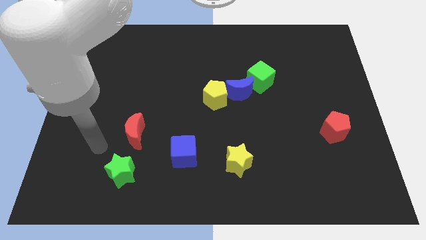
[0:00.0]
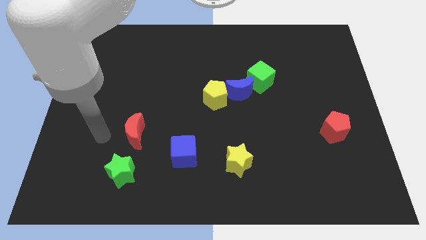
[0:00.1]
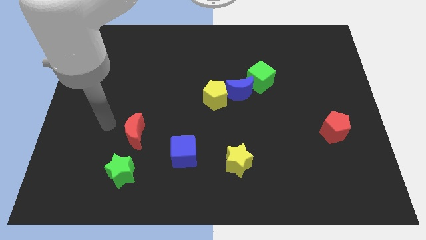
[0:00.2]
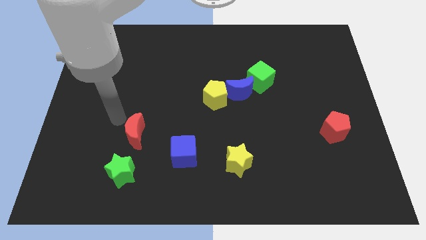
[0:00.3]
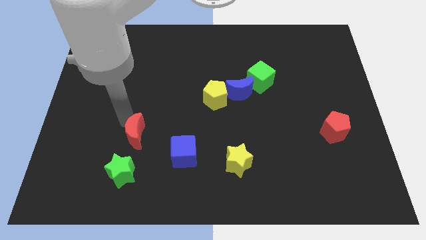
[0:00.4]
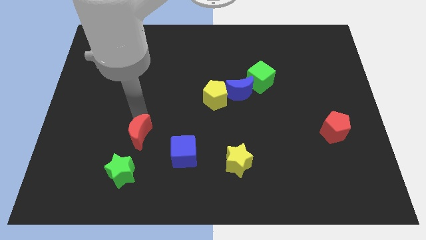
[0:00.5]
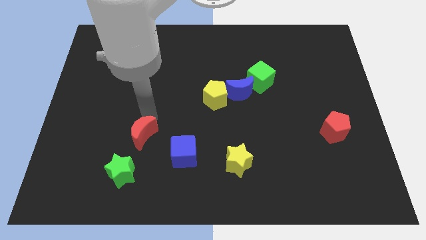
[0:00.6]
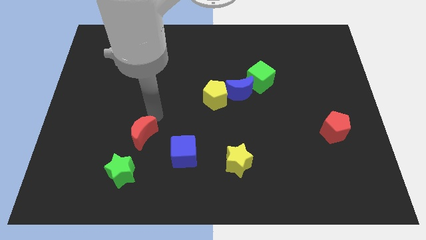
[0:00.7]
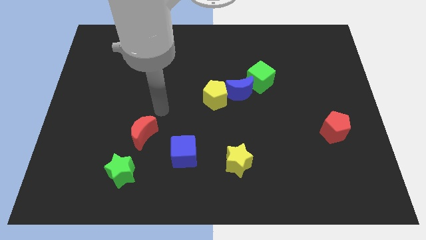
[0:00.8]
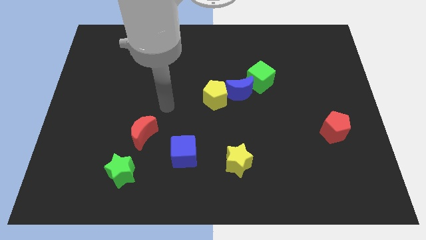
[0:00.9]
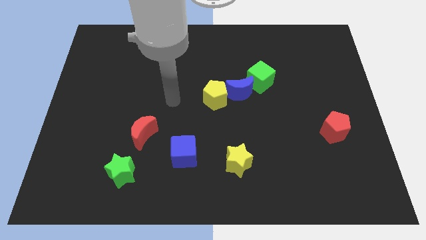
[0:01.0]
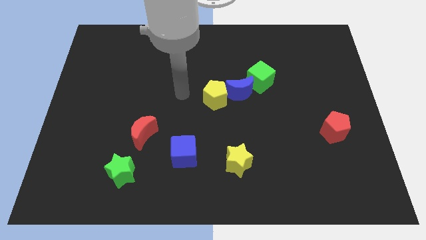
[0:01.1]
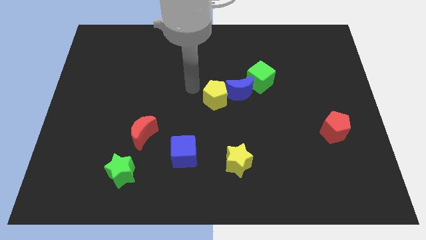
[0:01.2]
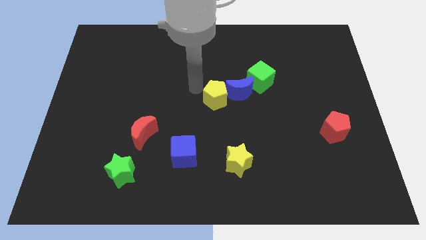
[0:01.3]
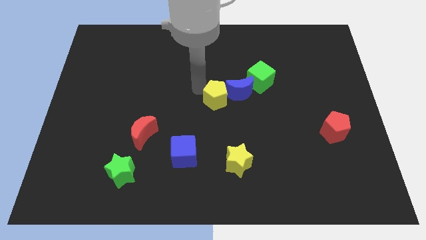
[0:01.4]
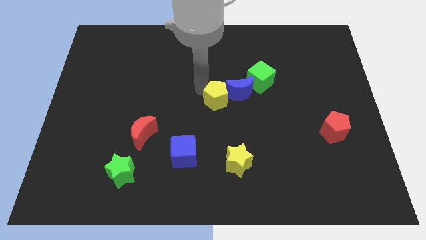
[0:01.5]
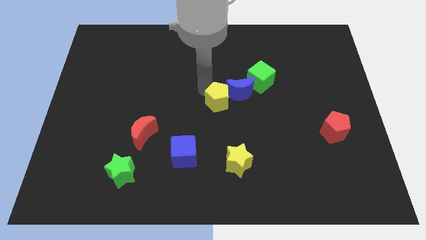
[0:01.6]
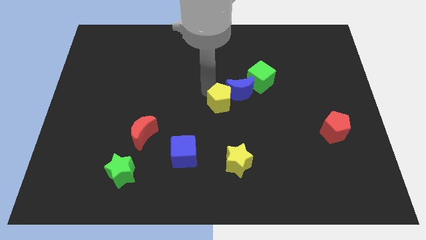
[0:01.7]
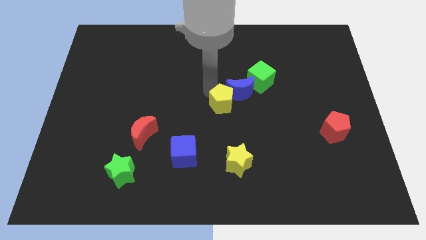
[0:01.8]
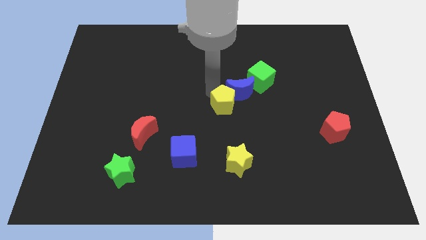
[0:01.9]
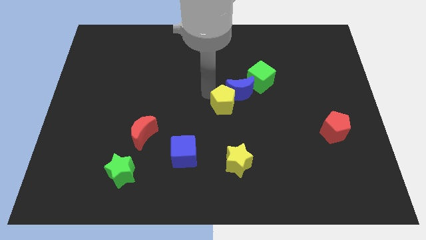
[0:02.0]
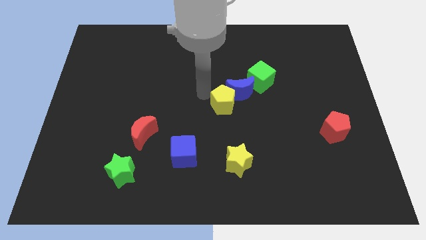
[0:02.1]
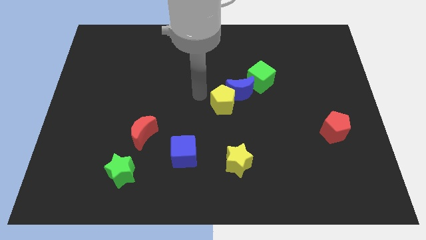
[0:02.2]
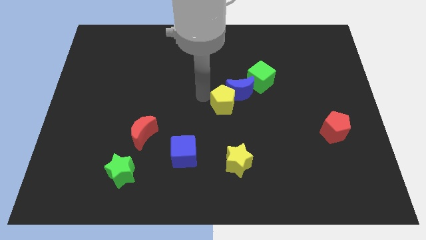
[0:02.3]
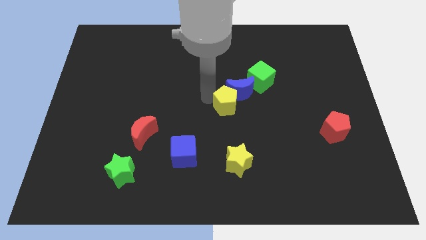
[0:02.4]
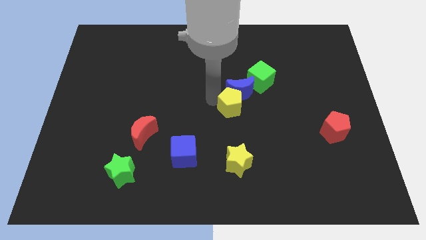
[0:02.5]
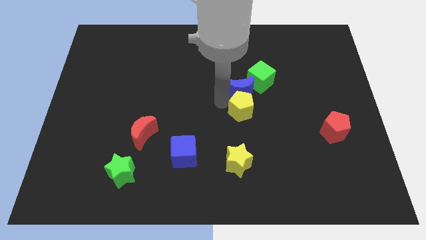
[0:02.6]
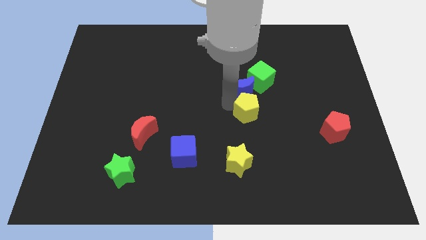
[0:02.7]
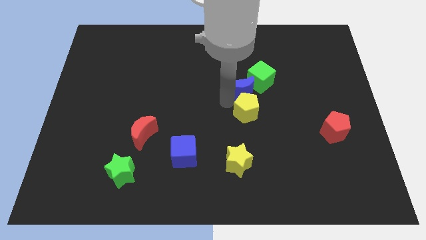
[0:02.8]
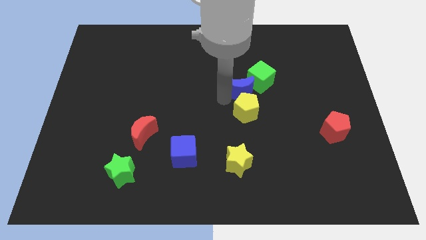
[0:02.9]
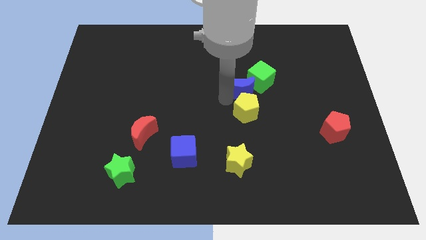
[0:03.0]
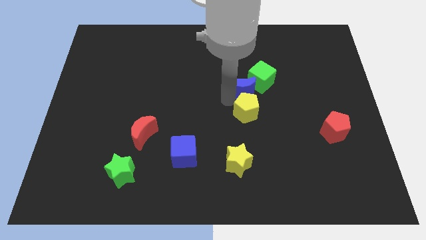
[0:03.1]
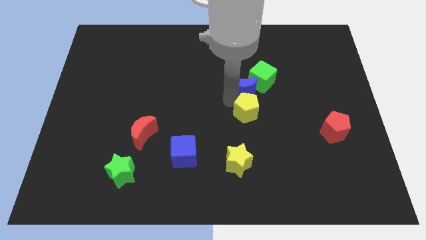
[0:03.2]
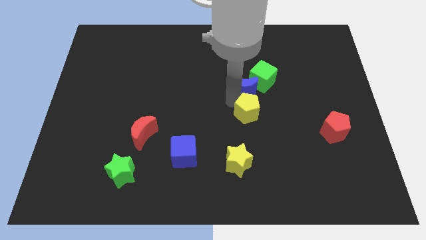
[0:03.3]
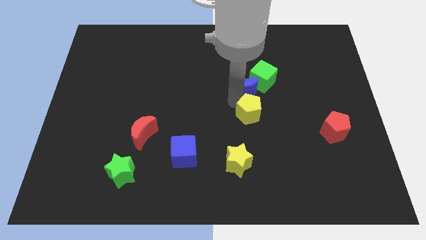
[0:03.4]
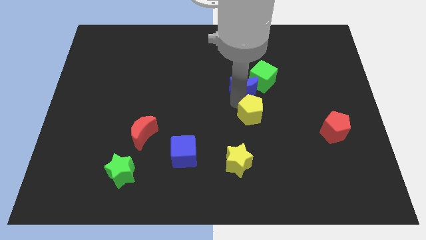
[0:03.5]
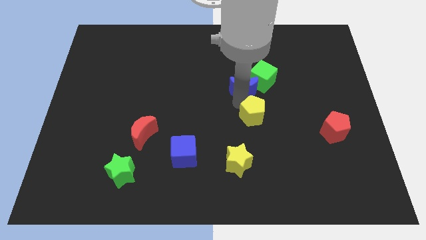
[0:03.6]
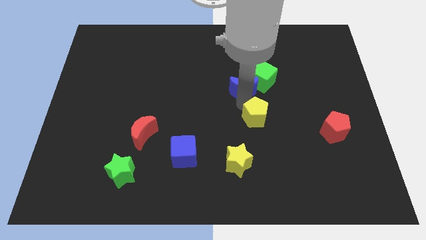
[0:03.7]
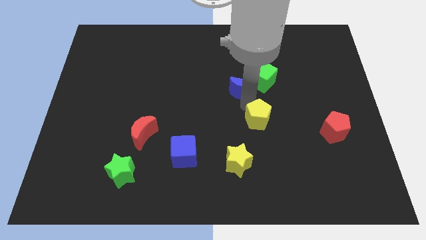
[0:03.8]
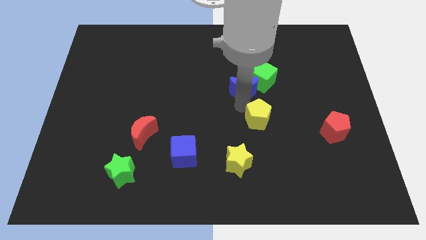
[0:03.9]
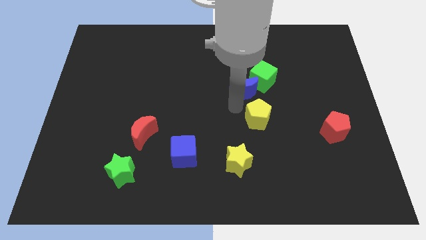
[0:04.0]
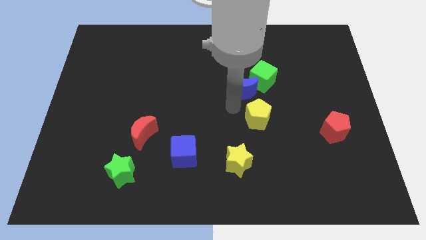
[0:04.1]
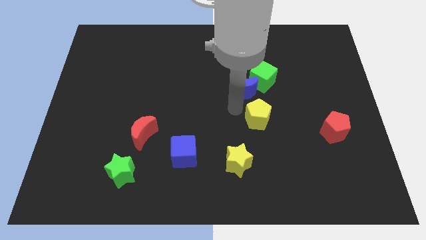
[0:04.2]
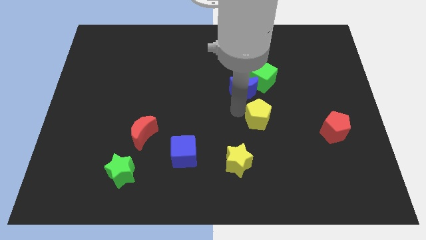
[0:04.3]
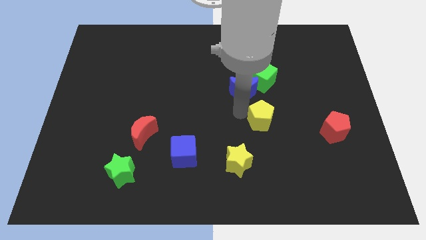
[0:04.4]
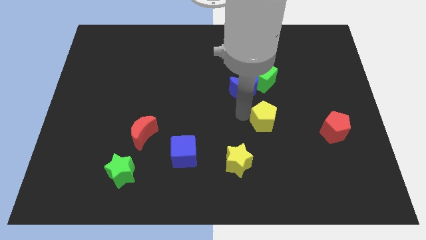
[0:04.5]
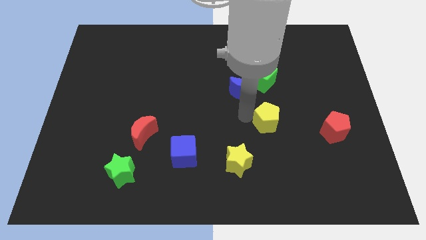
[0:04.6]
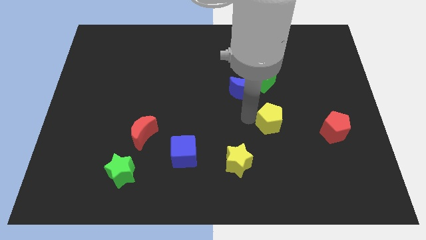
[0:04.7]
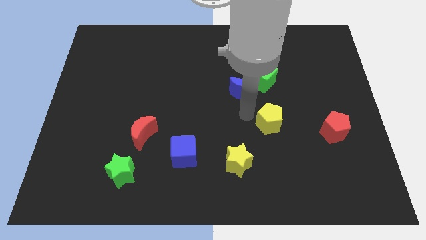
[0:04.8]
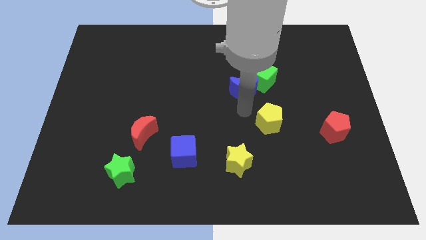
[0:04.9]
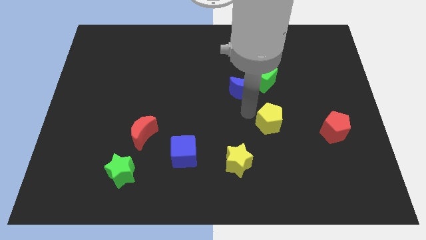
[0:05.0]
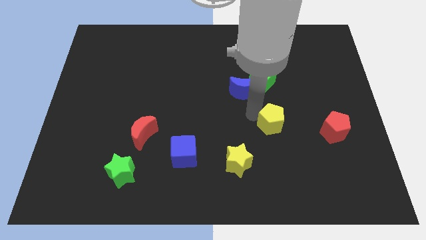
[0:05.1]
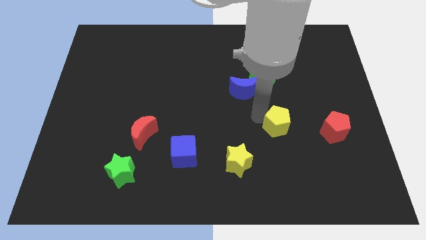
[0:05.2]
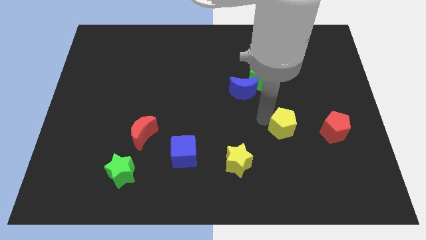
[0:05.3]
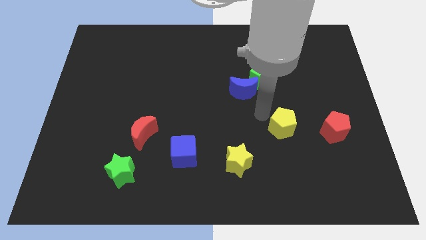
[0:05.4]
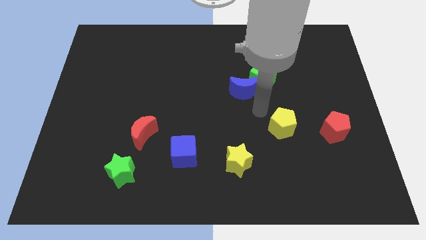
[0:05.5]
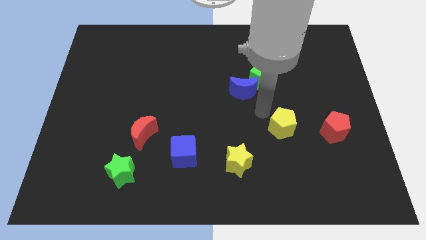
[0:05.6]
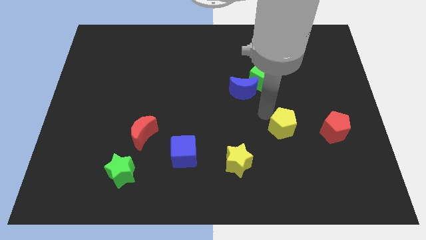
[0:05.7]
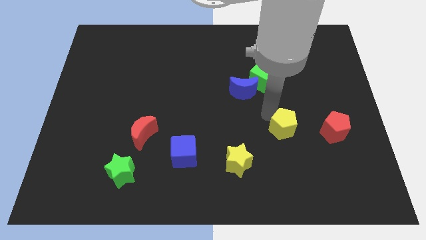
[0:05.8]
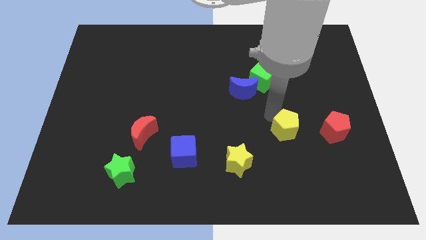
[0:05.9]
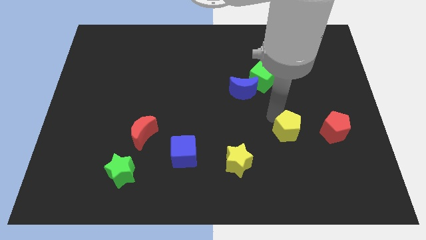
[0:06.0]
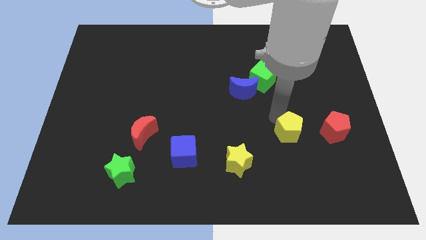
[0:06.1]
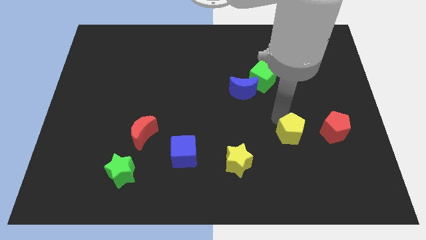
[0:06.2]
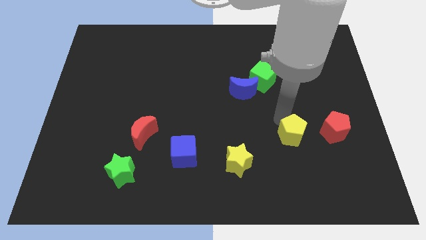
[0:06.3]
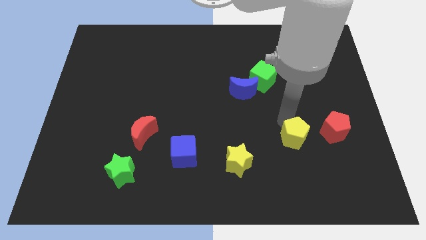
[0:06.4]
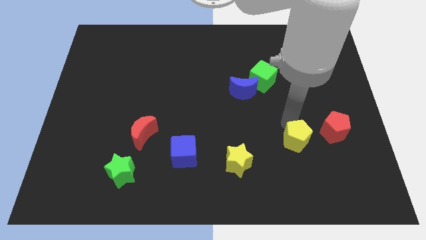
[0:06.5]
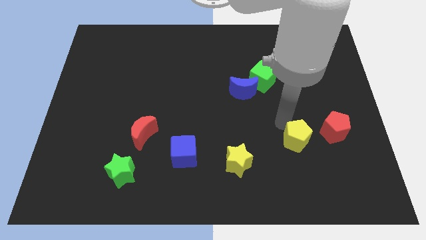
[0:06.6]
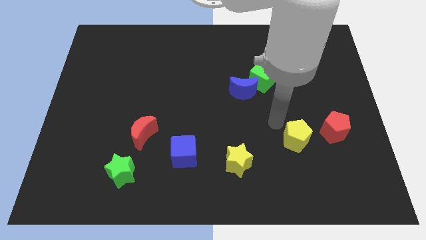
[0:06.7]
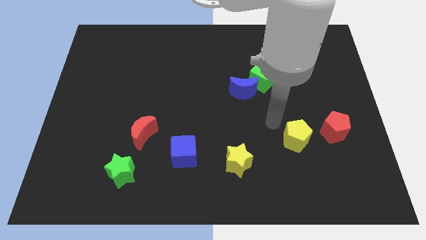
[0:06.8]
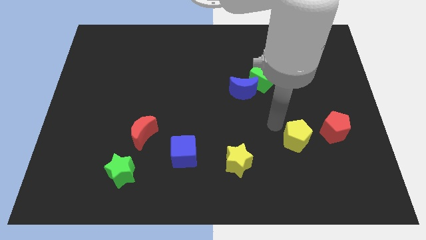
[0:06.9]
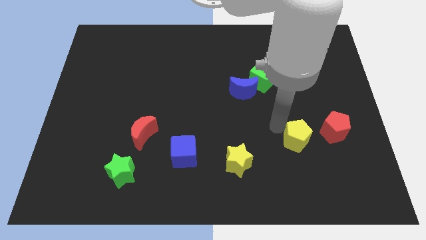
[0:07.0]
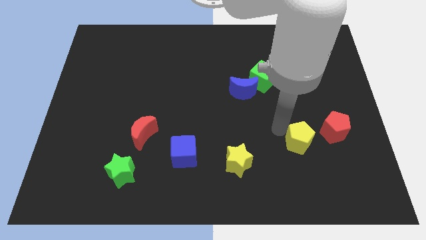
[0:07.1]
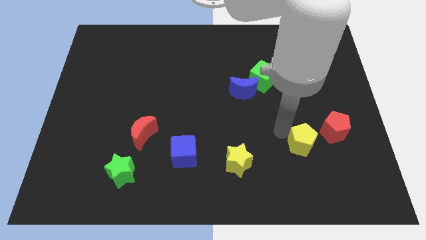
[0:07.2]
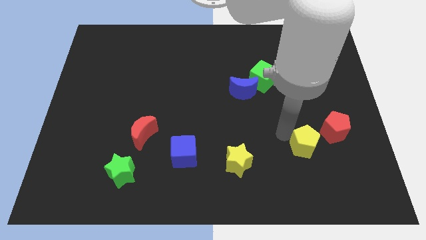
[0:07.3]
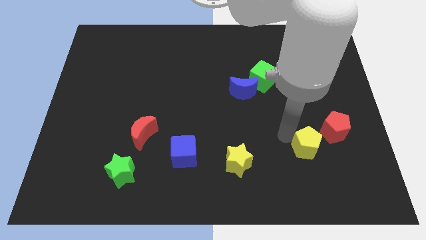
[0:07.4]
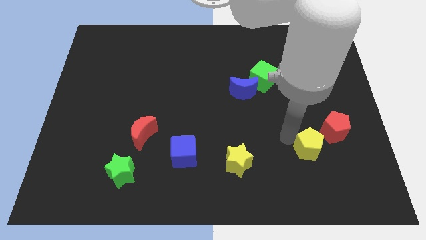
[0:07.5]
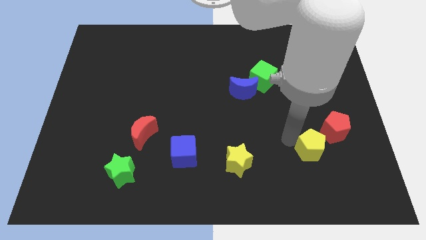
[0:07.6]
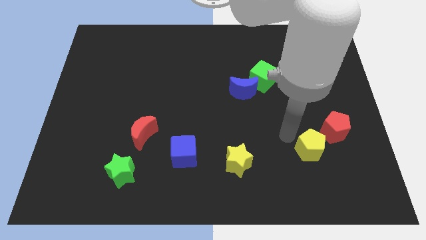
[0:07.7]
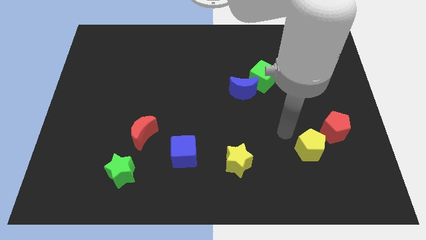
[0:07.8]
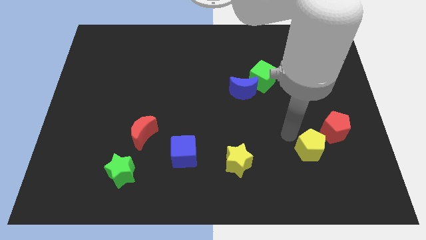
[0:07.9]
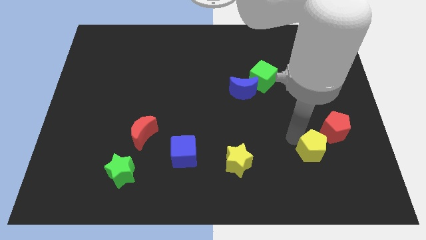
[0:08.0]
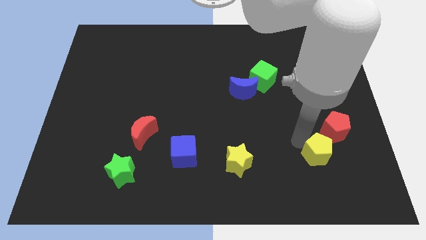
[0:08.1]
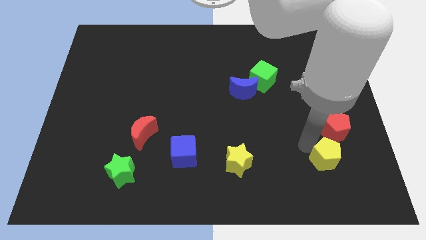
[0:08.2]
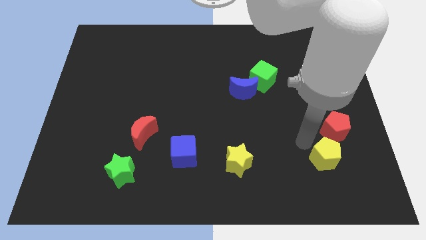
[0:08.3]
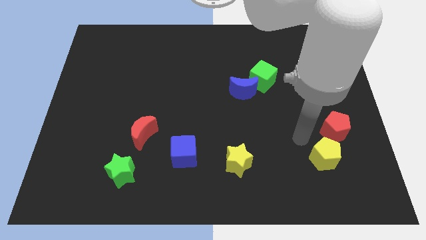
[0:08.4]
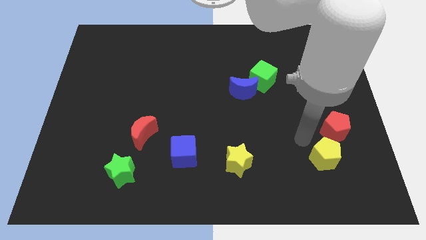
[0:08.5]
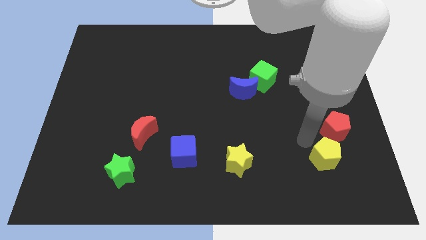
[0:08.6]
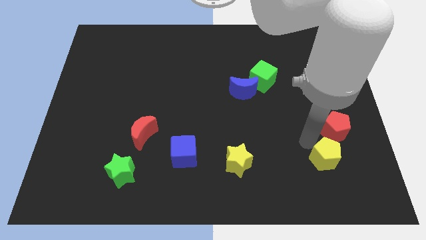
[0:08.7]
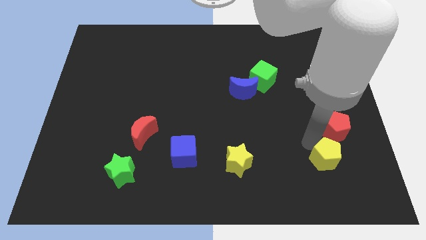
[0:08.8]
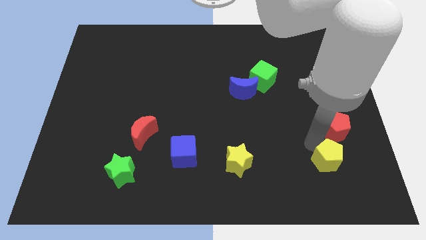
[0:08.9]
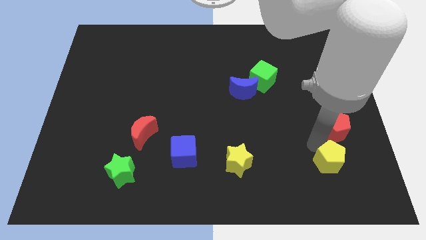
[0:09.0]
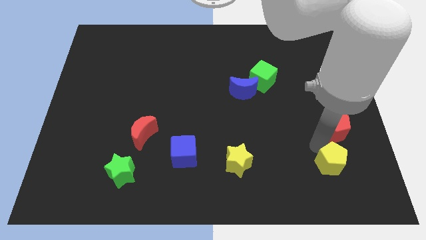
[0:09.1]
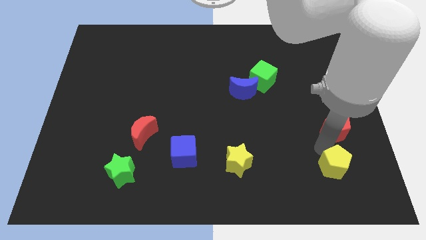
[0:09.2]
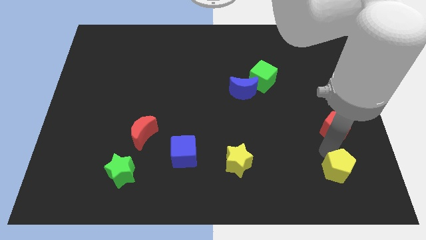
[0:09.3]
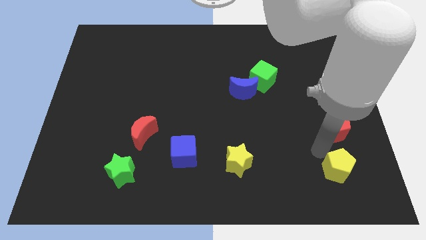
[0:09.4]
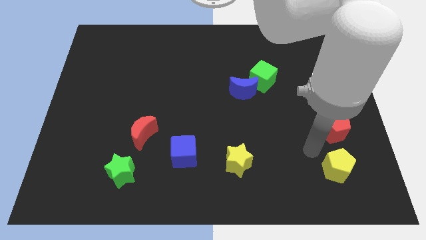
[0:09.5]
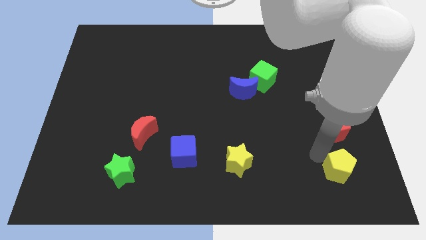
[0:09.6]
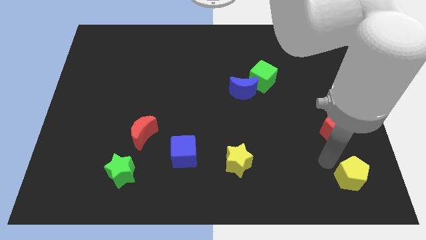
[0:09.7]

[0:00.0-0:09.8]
push the yellow pentagon to the bottom right corner
